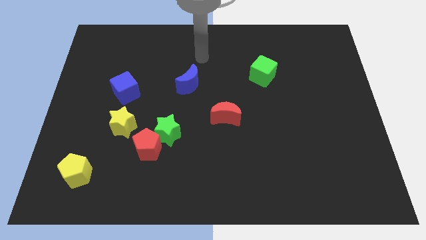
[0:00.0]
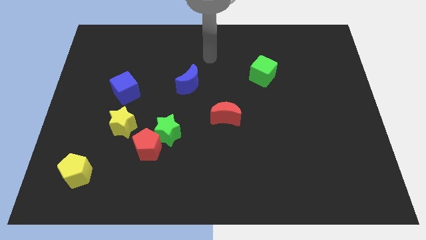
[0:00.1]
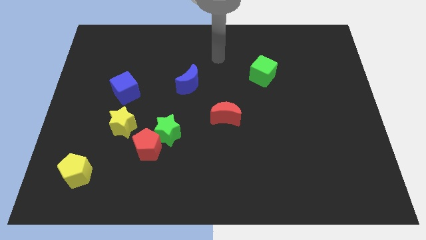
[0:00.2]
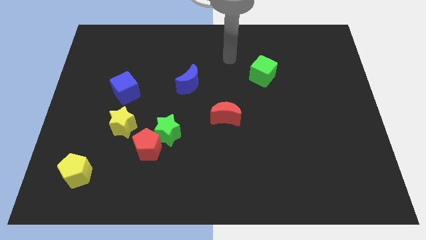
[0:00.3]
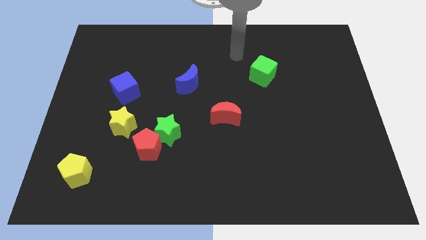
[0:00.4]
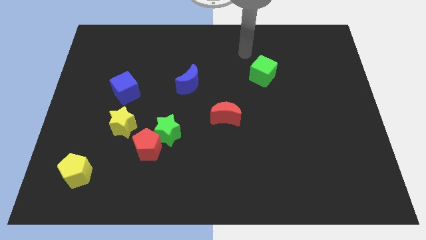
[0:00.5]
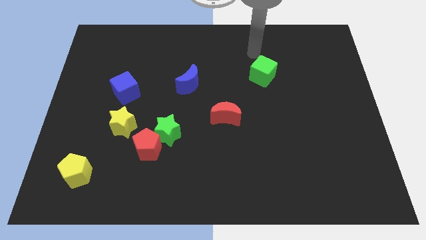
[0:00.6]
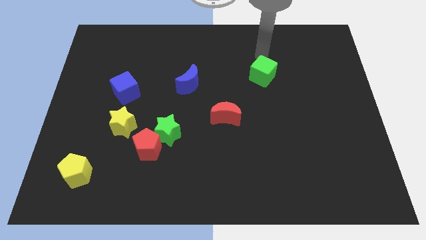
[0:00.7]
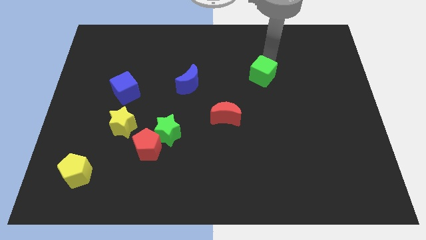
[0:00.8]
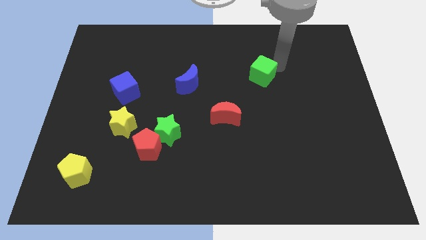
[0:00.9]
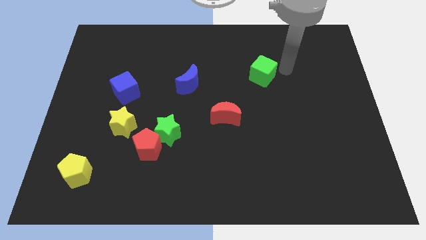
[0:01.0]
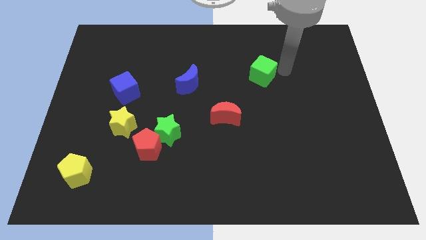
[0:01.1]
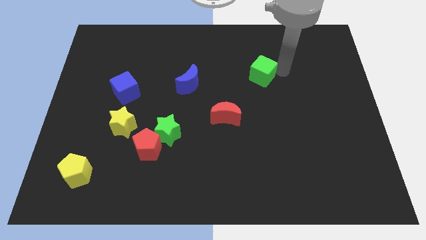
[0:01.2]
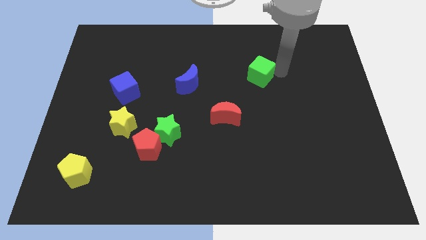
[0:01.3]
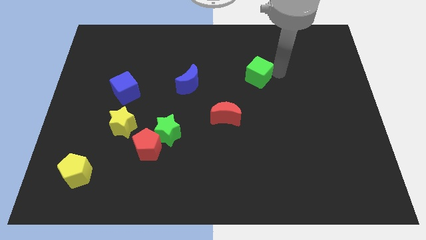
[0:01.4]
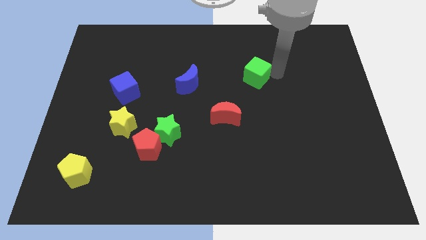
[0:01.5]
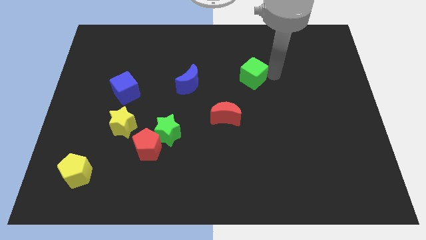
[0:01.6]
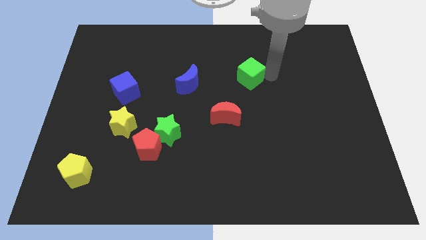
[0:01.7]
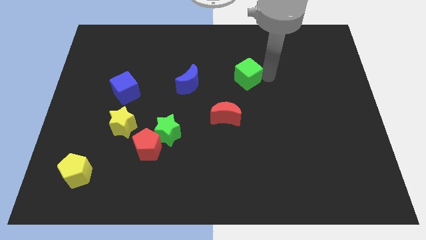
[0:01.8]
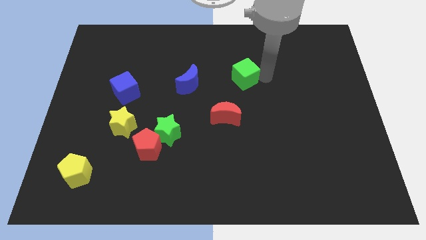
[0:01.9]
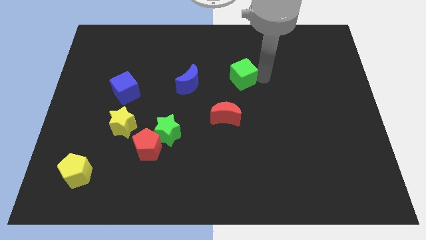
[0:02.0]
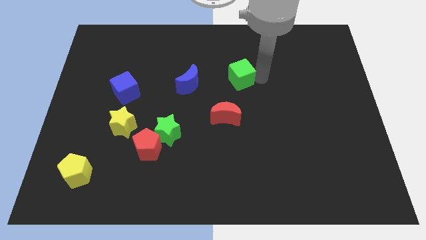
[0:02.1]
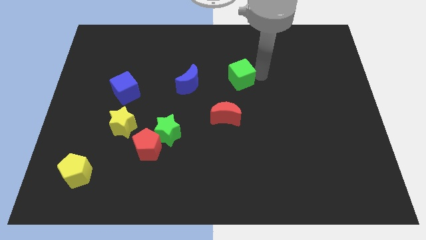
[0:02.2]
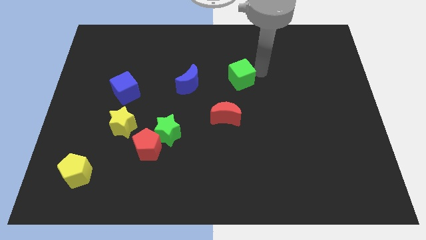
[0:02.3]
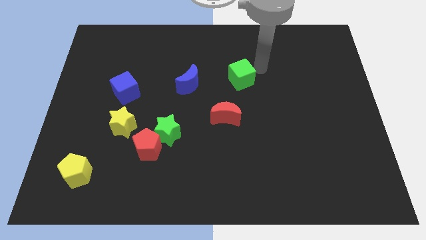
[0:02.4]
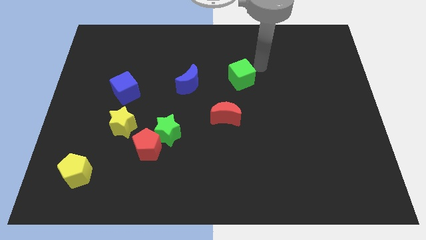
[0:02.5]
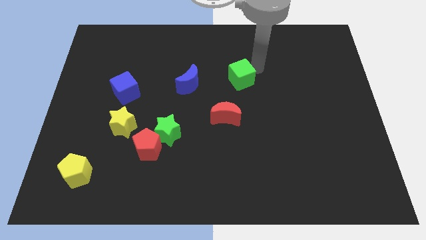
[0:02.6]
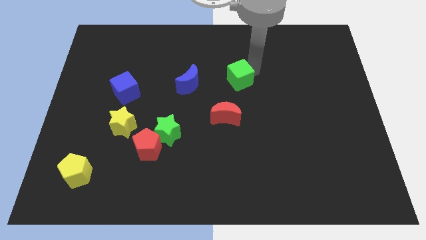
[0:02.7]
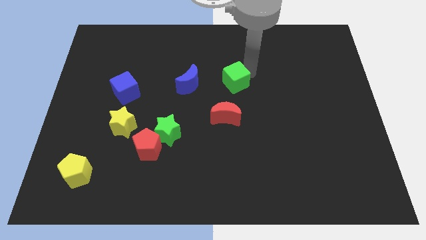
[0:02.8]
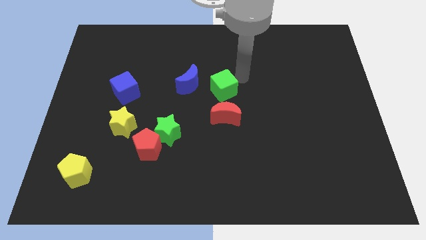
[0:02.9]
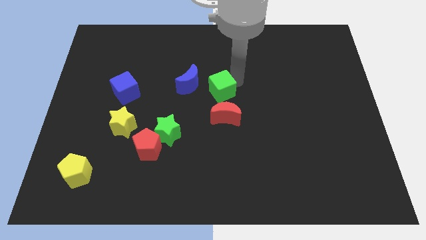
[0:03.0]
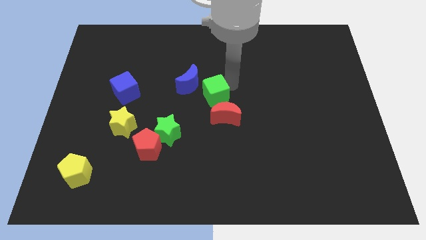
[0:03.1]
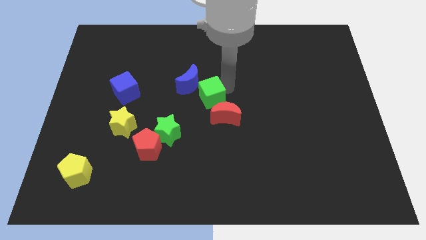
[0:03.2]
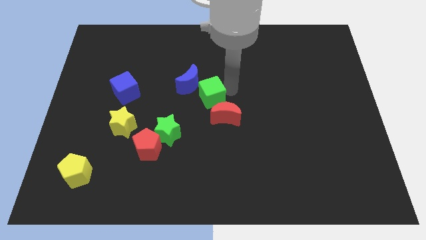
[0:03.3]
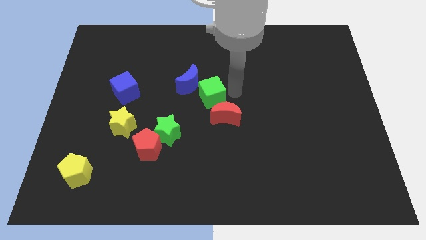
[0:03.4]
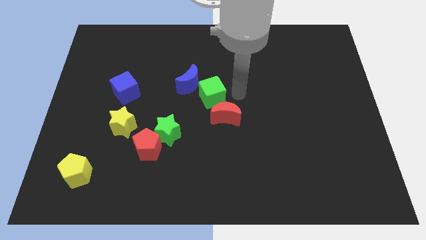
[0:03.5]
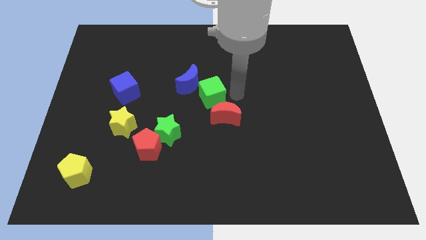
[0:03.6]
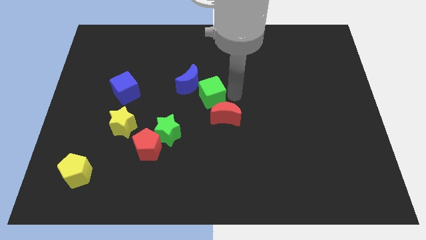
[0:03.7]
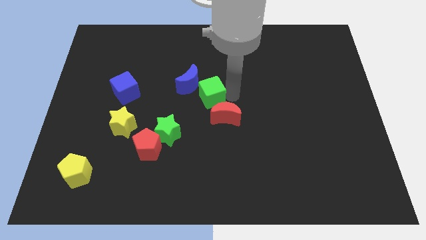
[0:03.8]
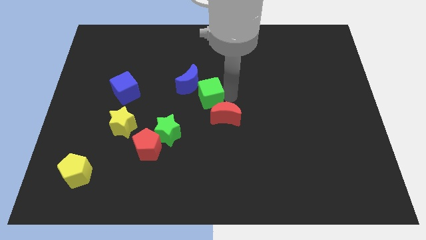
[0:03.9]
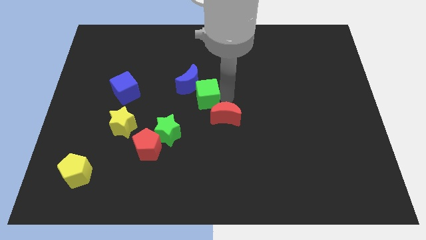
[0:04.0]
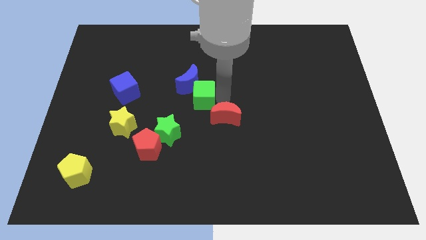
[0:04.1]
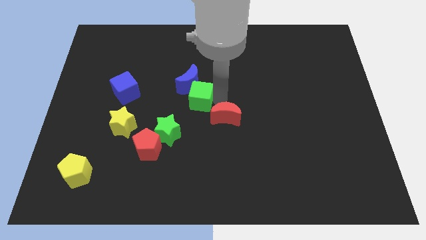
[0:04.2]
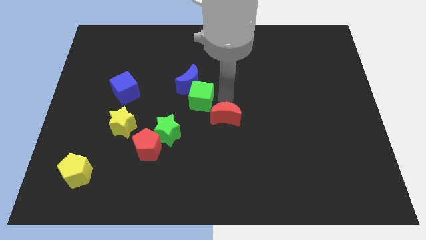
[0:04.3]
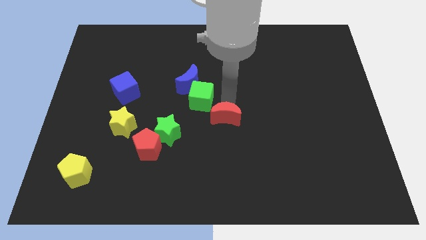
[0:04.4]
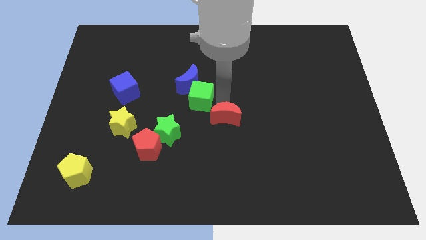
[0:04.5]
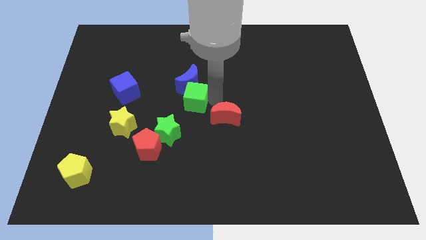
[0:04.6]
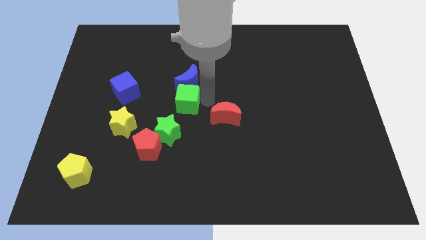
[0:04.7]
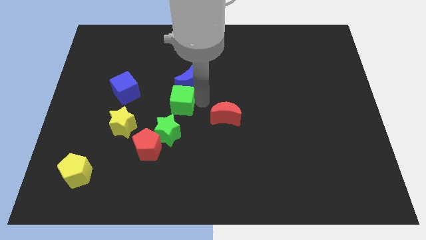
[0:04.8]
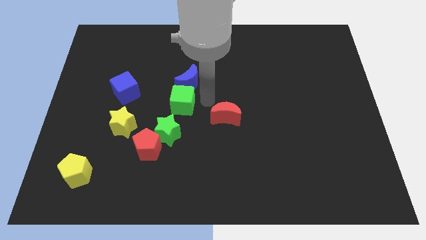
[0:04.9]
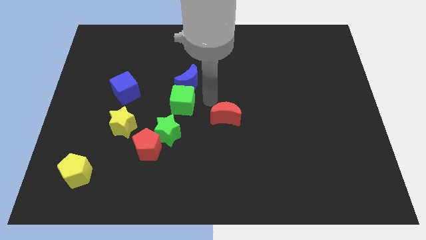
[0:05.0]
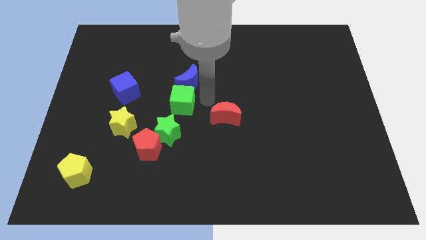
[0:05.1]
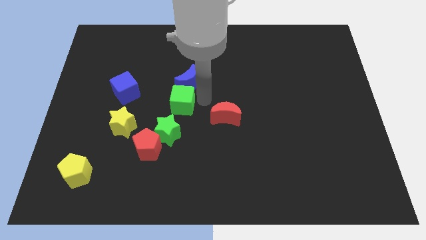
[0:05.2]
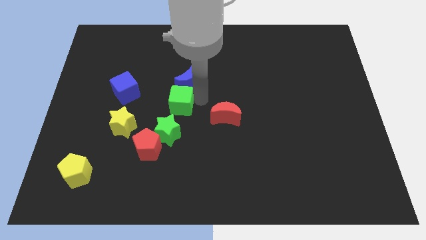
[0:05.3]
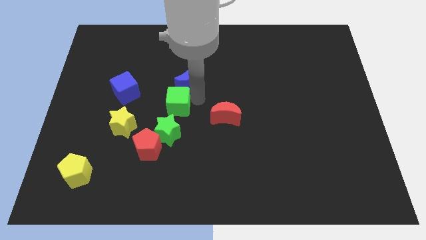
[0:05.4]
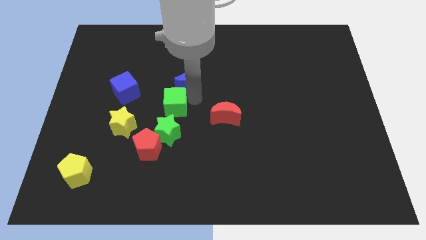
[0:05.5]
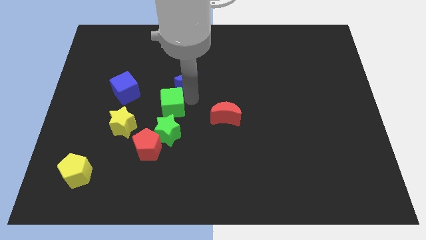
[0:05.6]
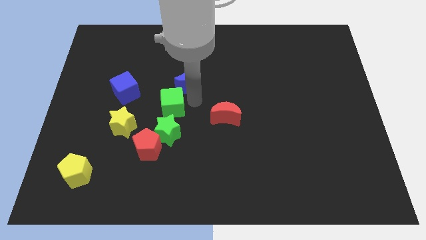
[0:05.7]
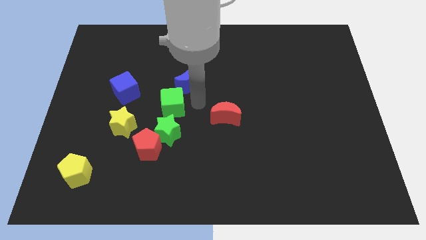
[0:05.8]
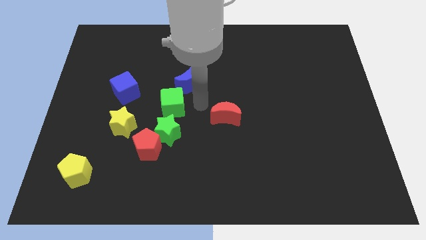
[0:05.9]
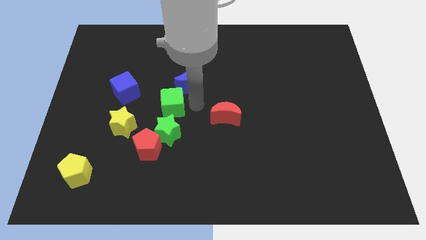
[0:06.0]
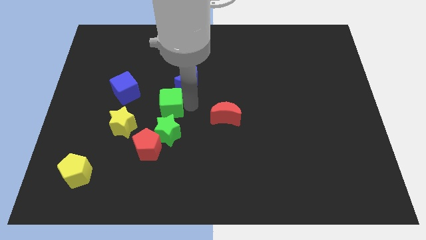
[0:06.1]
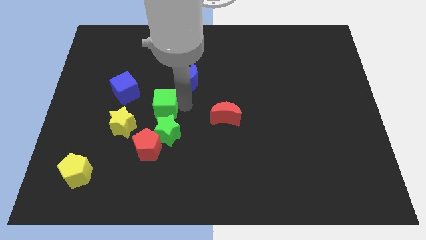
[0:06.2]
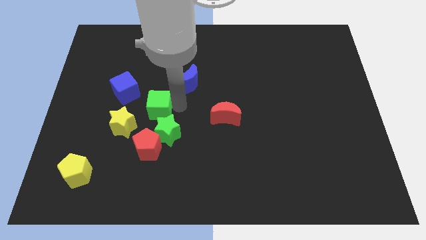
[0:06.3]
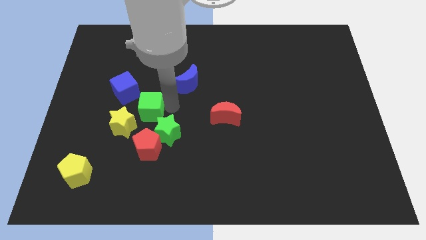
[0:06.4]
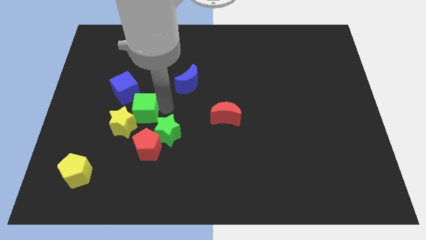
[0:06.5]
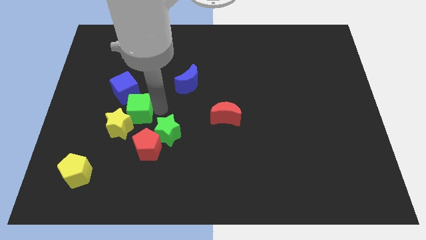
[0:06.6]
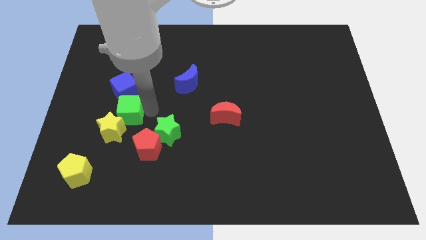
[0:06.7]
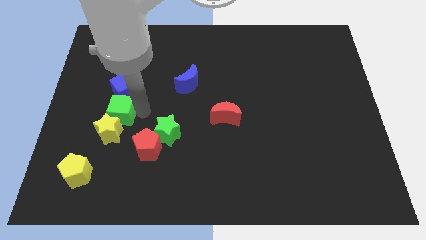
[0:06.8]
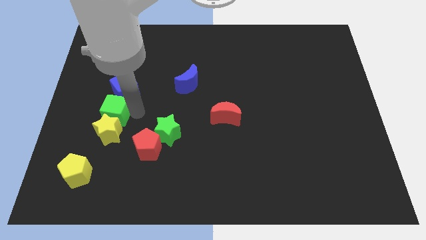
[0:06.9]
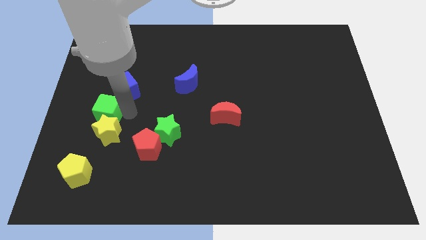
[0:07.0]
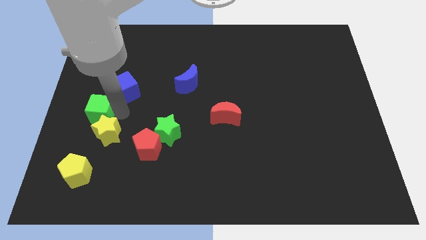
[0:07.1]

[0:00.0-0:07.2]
push the green cube to the left side of the board

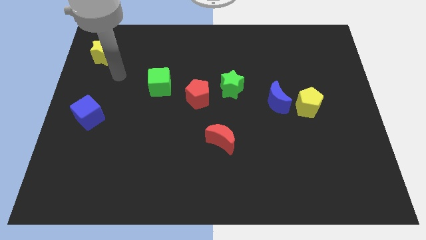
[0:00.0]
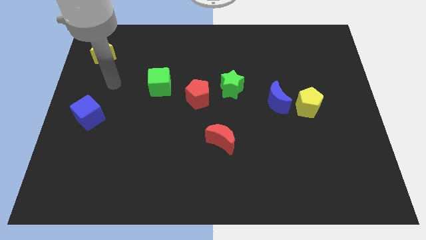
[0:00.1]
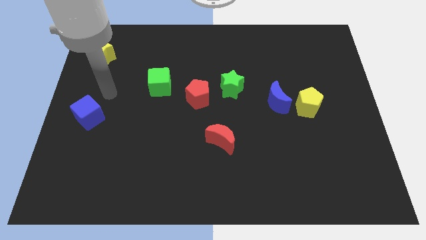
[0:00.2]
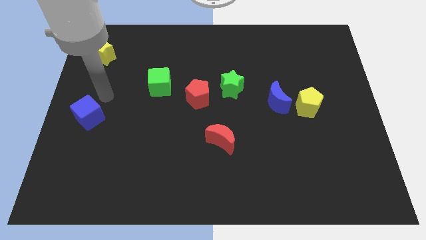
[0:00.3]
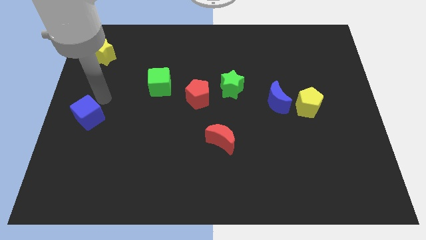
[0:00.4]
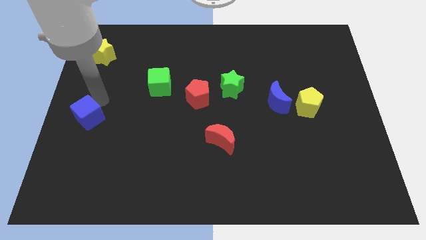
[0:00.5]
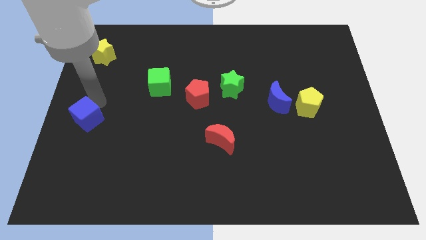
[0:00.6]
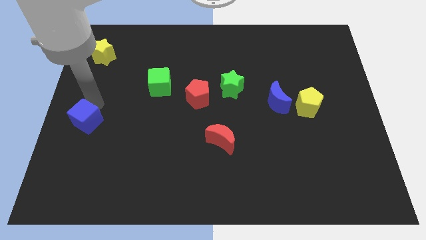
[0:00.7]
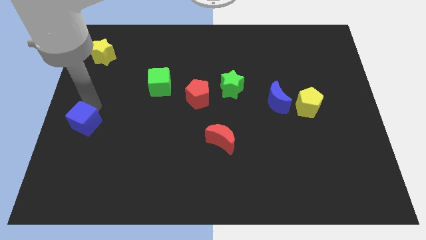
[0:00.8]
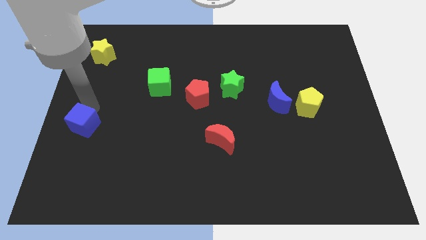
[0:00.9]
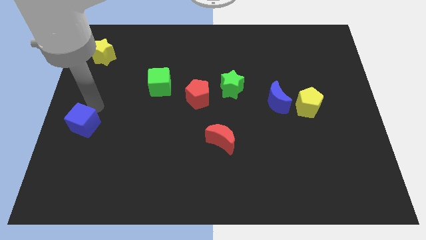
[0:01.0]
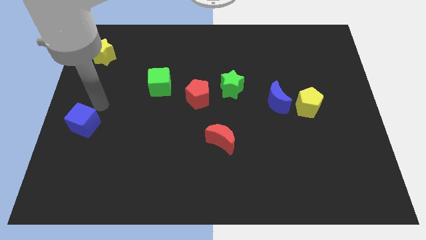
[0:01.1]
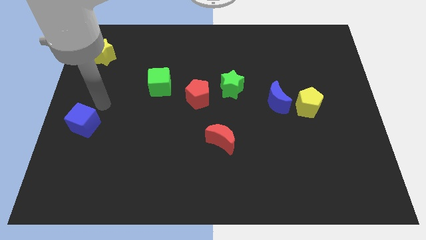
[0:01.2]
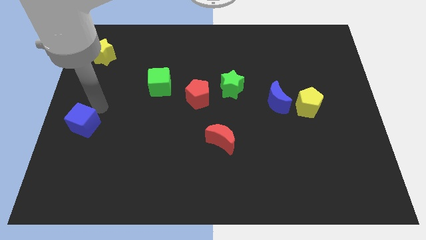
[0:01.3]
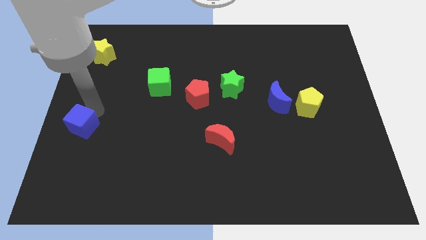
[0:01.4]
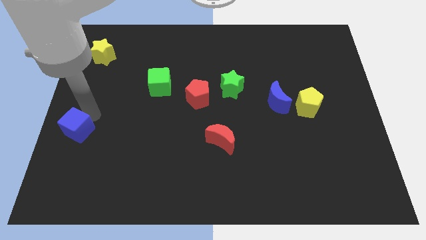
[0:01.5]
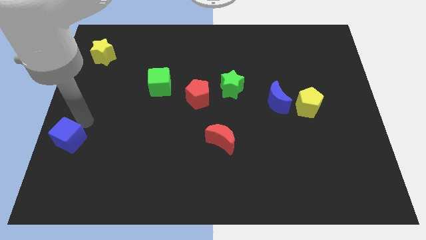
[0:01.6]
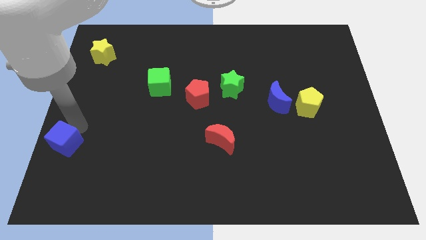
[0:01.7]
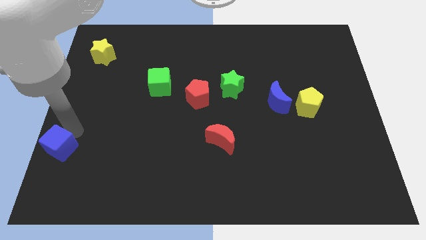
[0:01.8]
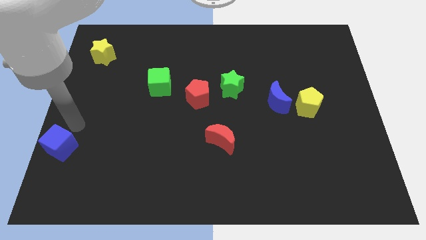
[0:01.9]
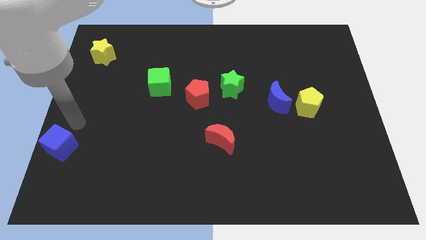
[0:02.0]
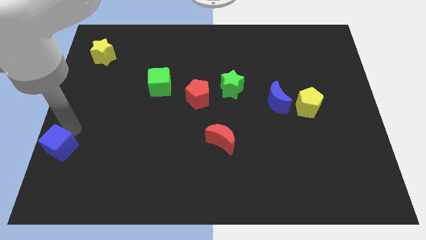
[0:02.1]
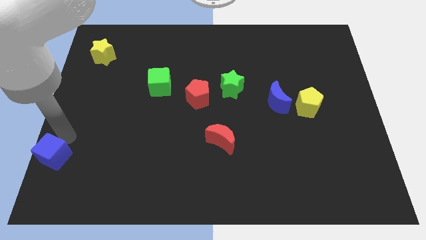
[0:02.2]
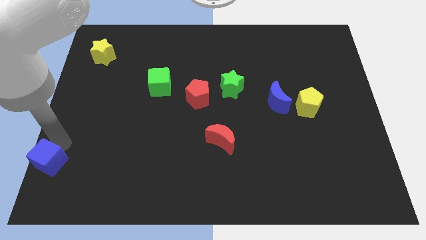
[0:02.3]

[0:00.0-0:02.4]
slide the blue cube to the bottom left of the board
